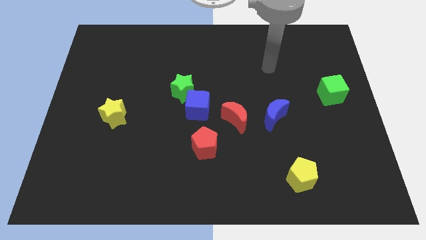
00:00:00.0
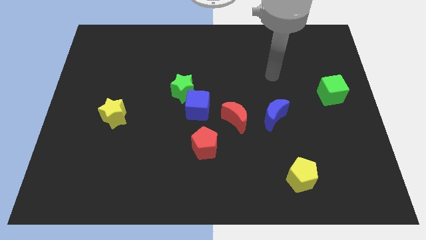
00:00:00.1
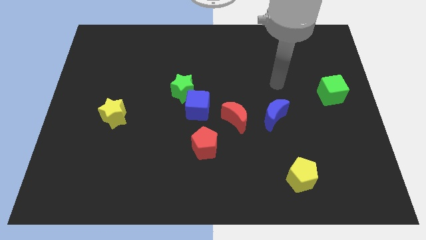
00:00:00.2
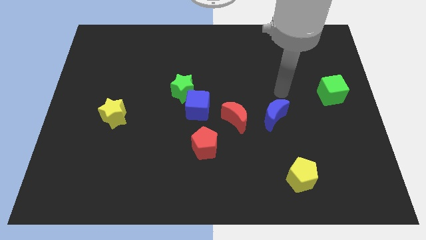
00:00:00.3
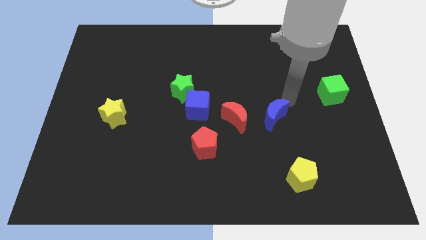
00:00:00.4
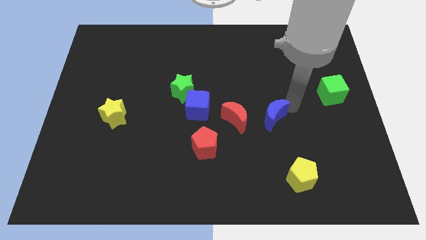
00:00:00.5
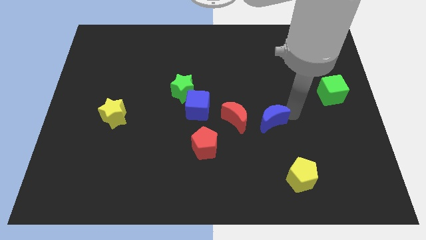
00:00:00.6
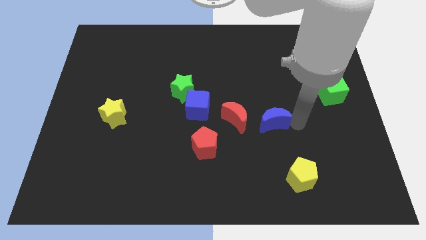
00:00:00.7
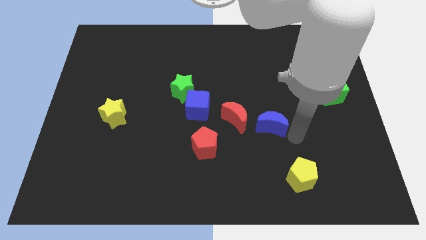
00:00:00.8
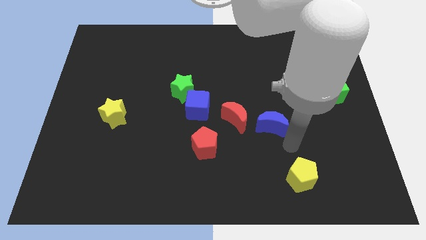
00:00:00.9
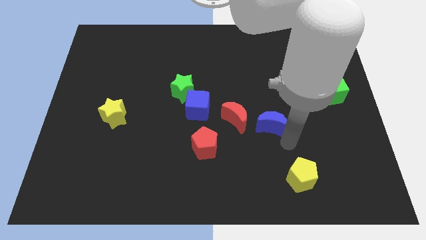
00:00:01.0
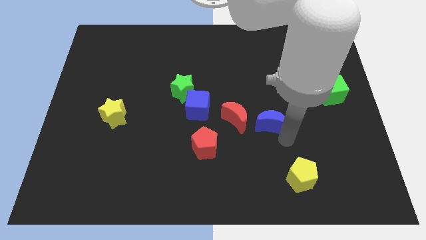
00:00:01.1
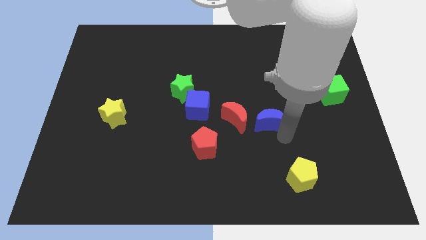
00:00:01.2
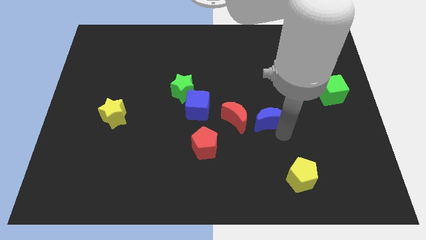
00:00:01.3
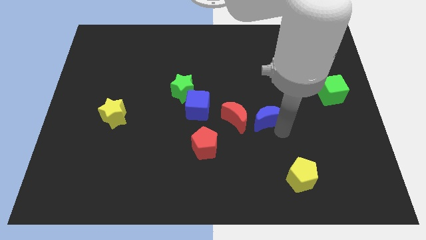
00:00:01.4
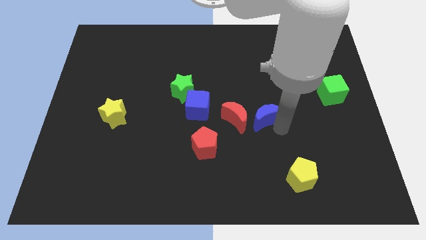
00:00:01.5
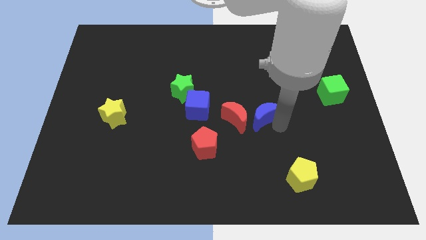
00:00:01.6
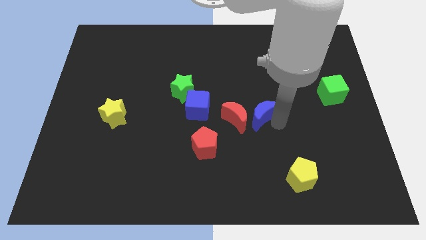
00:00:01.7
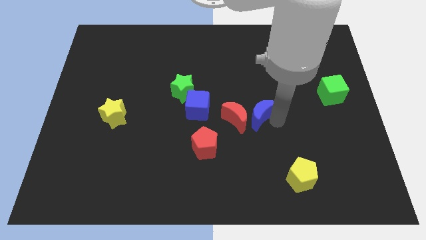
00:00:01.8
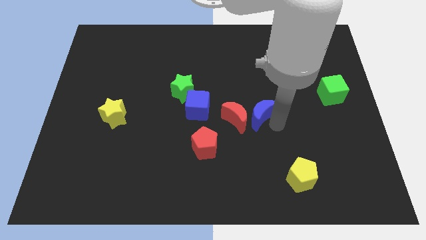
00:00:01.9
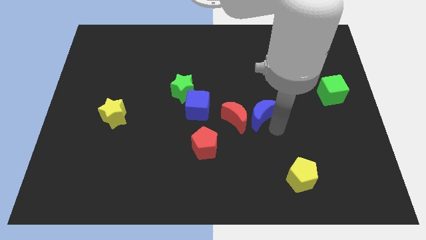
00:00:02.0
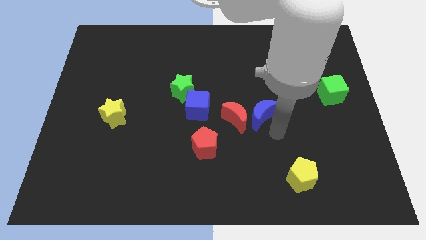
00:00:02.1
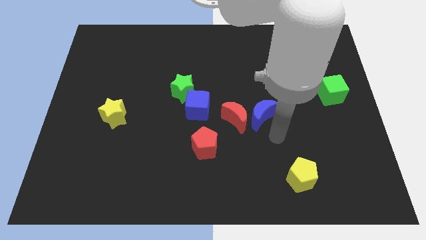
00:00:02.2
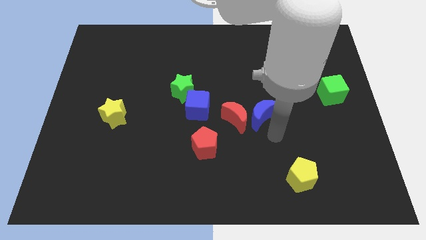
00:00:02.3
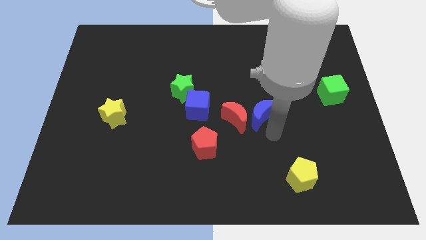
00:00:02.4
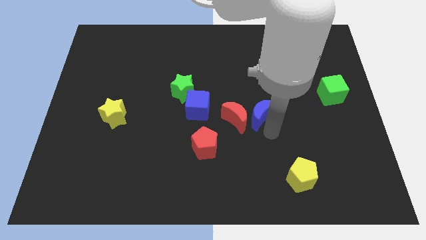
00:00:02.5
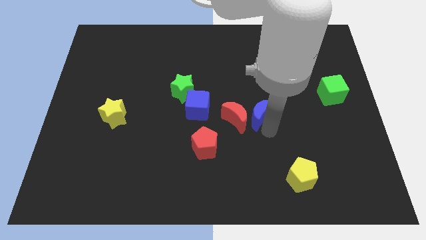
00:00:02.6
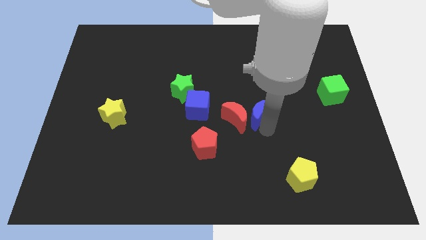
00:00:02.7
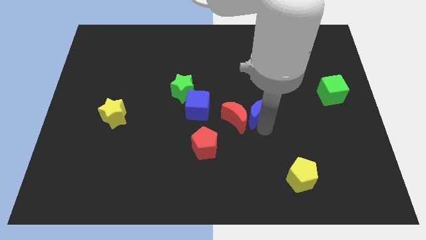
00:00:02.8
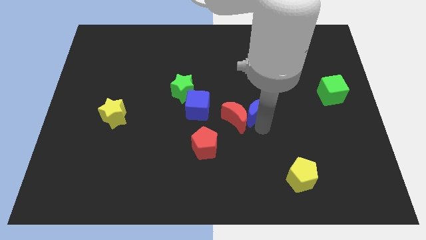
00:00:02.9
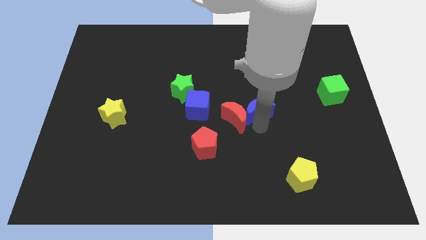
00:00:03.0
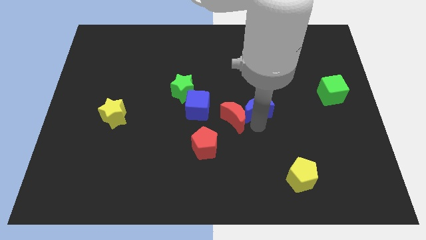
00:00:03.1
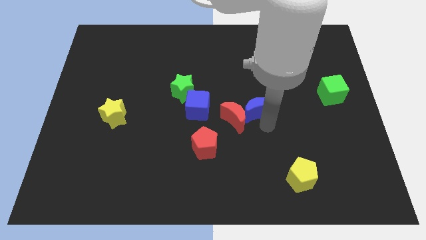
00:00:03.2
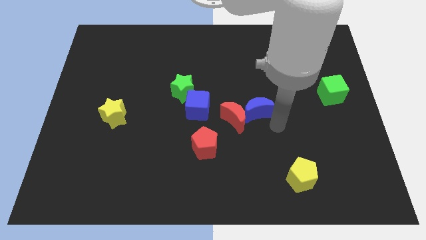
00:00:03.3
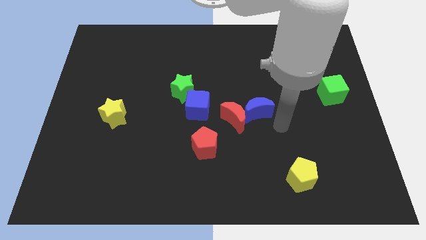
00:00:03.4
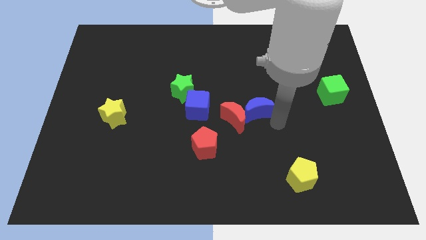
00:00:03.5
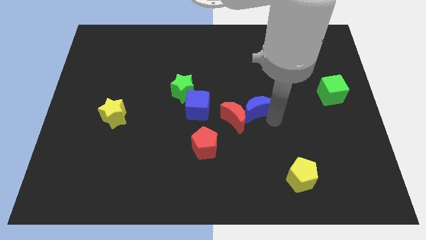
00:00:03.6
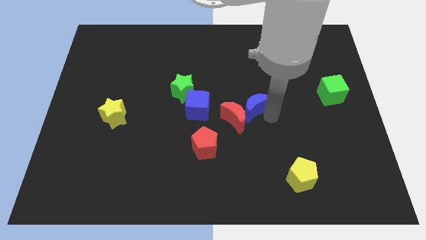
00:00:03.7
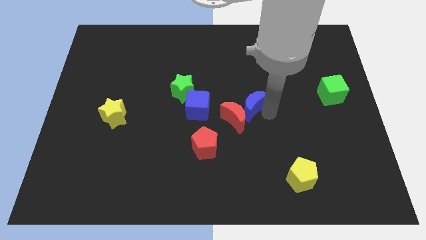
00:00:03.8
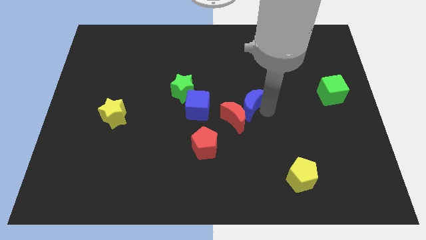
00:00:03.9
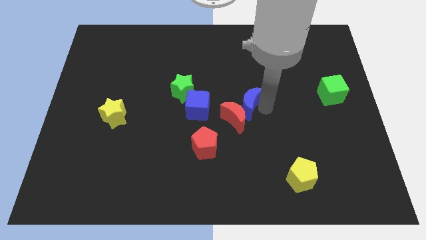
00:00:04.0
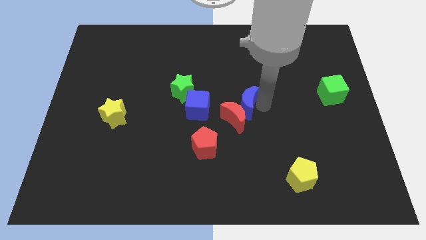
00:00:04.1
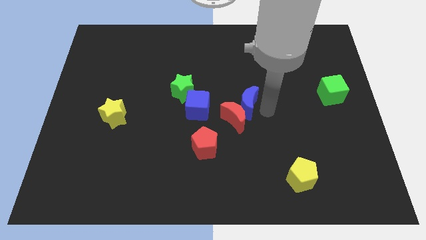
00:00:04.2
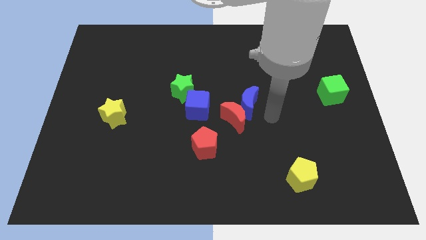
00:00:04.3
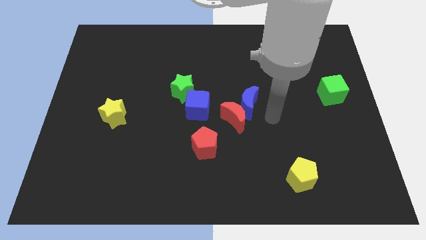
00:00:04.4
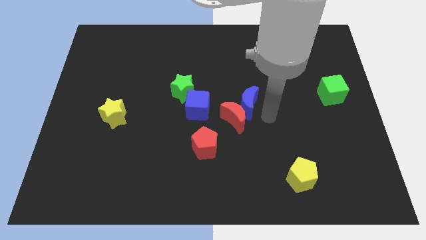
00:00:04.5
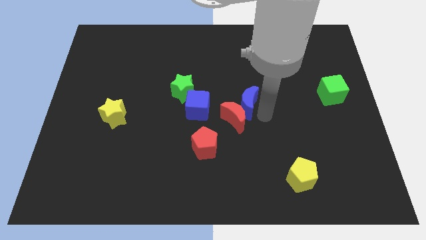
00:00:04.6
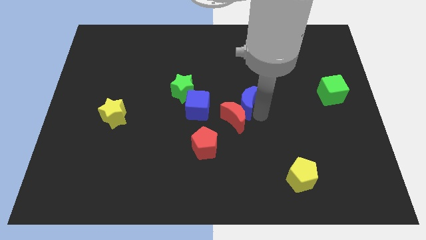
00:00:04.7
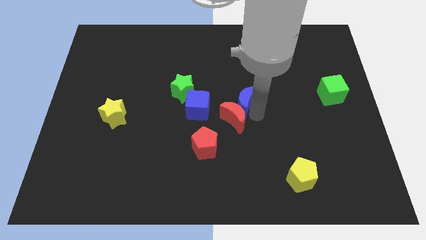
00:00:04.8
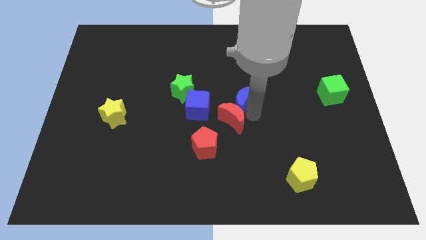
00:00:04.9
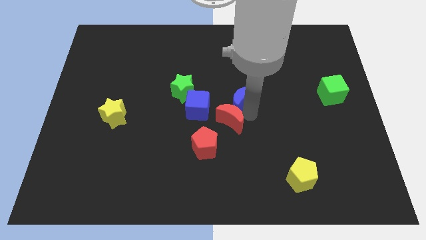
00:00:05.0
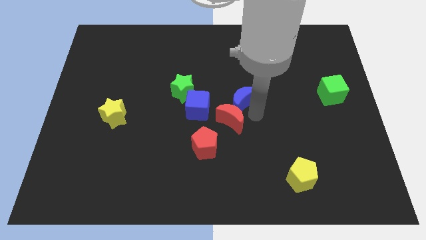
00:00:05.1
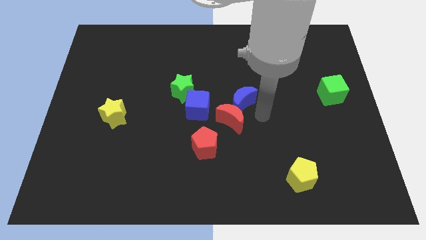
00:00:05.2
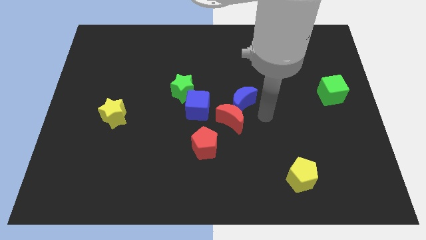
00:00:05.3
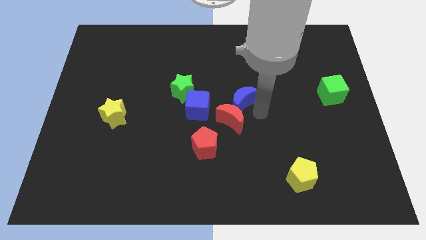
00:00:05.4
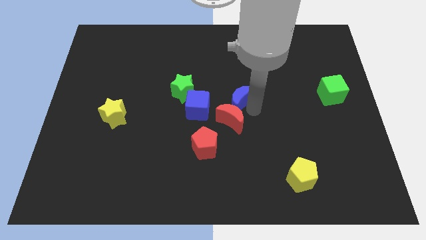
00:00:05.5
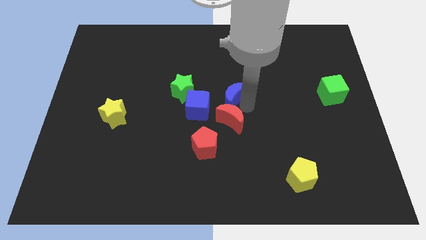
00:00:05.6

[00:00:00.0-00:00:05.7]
slide the blue moon to the top right side of the blue cube

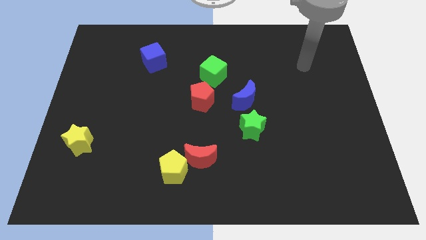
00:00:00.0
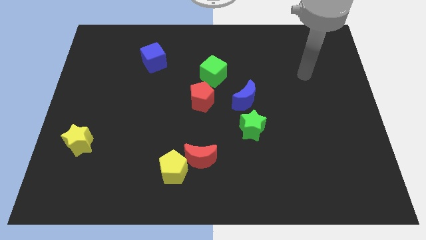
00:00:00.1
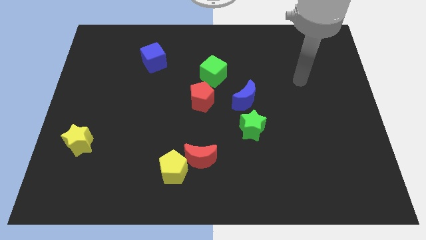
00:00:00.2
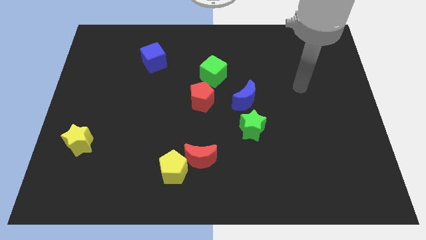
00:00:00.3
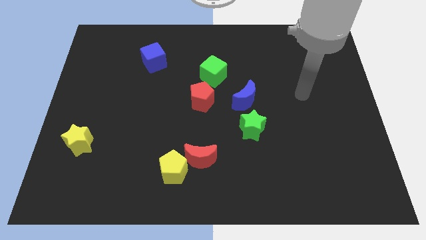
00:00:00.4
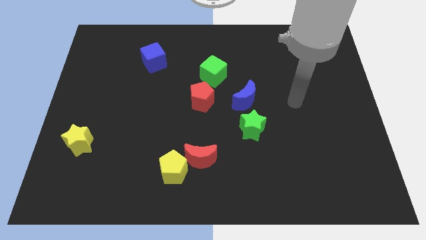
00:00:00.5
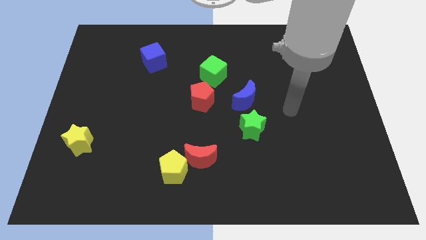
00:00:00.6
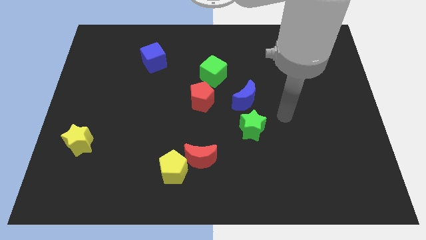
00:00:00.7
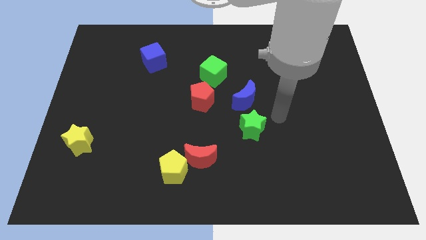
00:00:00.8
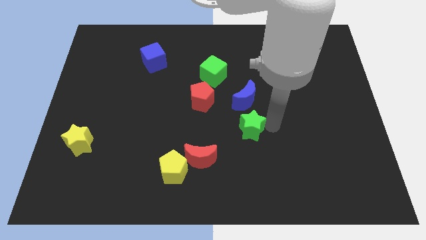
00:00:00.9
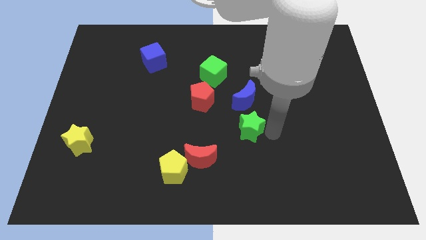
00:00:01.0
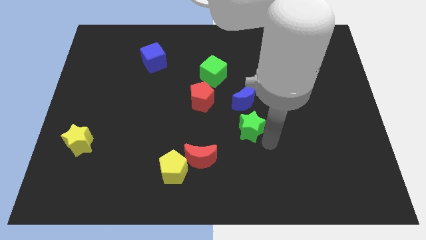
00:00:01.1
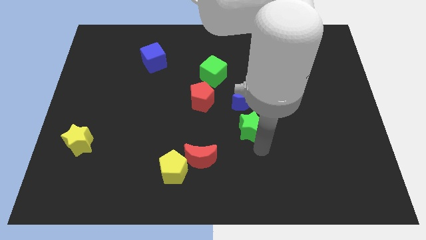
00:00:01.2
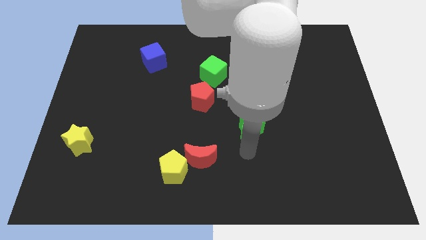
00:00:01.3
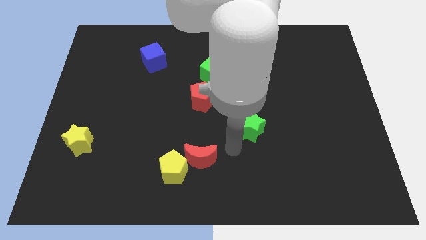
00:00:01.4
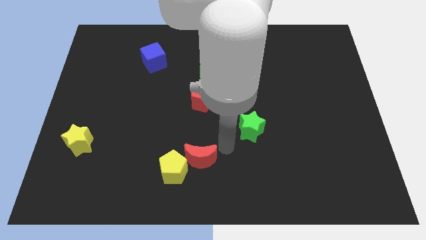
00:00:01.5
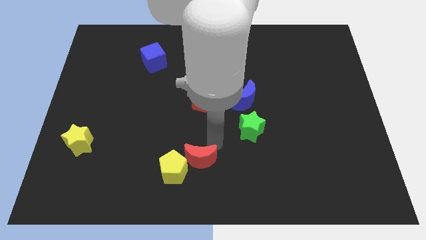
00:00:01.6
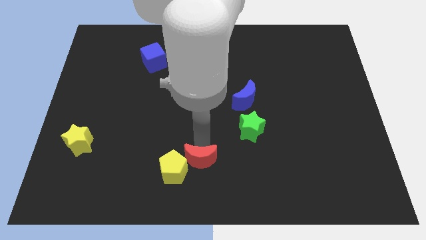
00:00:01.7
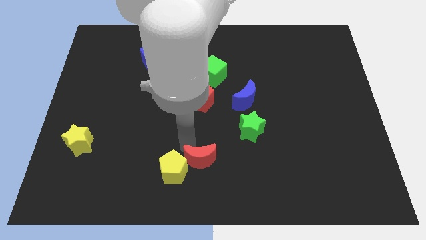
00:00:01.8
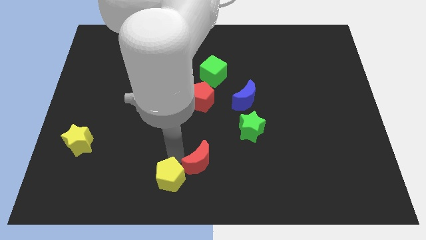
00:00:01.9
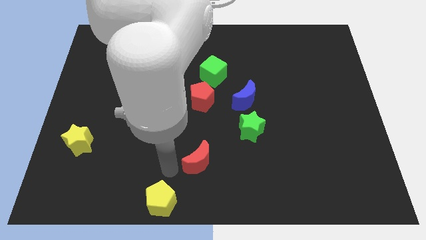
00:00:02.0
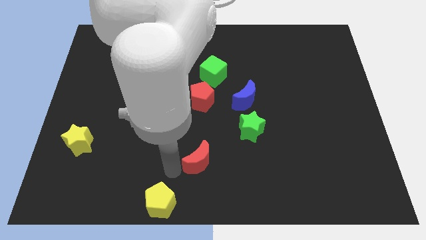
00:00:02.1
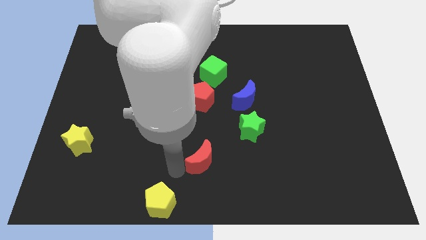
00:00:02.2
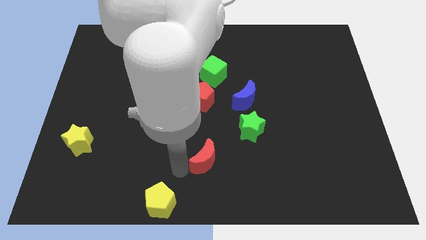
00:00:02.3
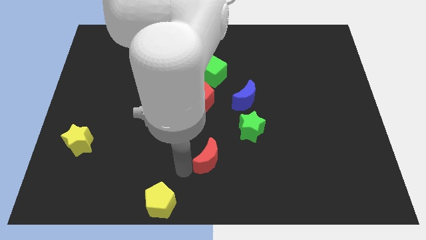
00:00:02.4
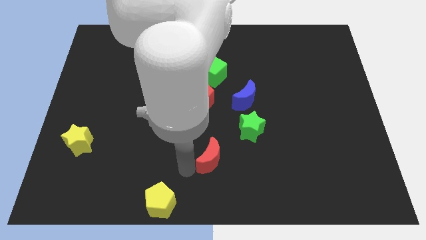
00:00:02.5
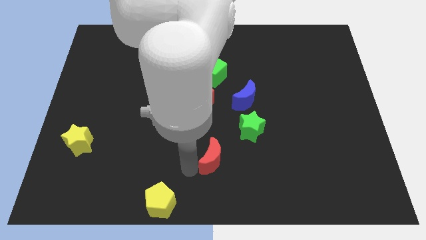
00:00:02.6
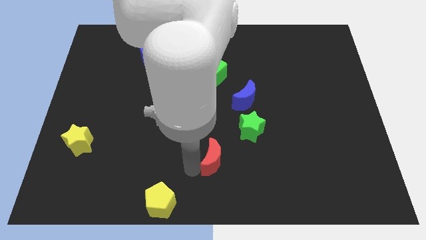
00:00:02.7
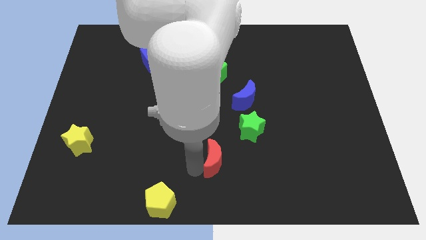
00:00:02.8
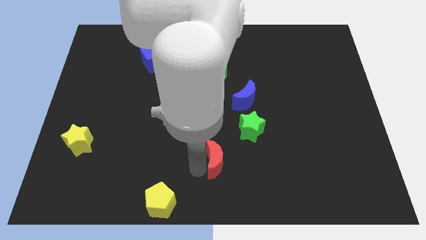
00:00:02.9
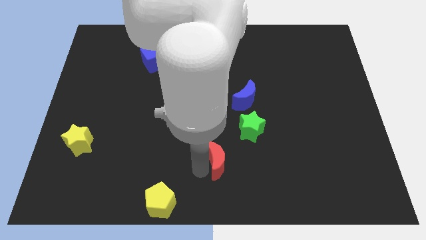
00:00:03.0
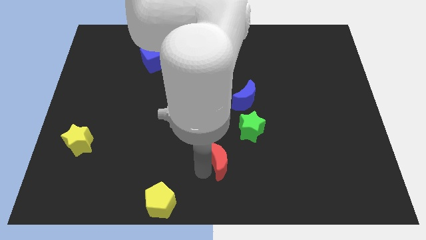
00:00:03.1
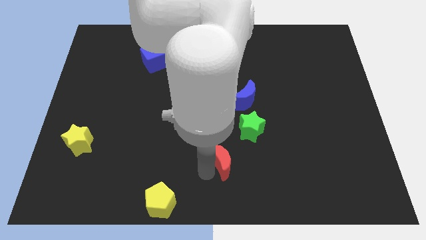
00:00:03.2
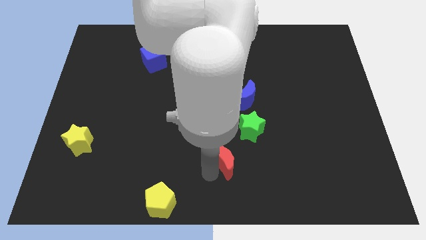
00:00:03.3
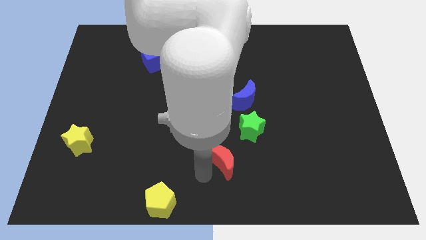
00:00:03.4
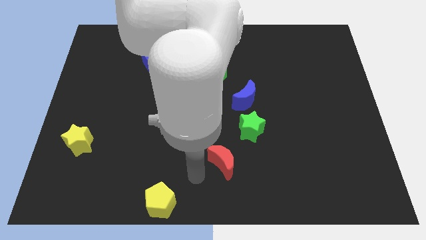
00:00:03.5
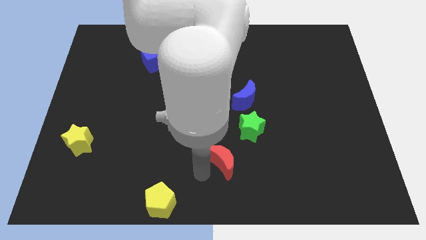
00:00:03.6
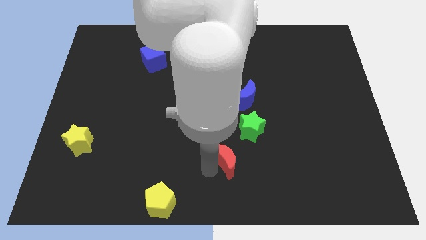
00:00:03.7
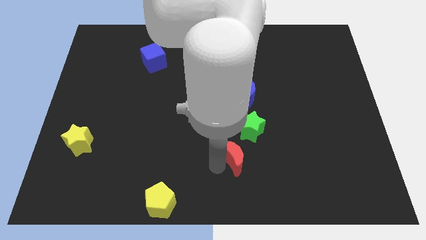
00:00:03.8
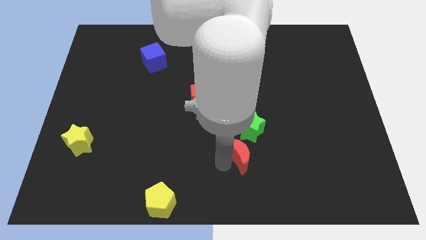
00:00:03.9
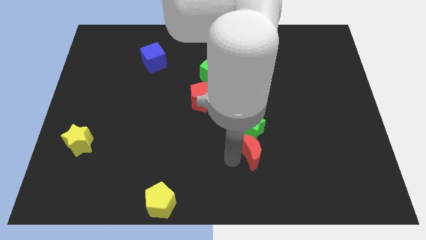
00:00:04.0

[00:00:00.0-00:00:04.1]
slide the red moon diagonally down and to the right of the green star
